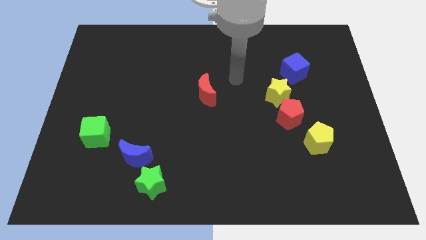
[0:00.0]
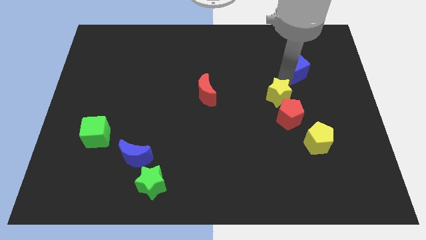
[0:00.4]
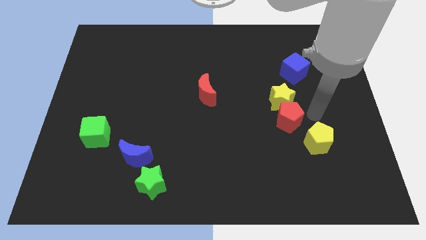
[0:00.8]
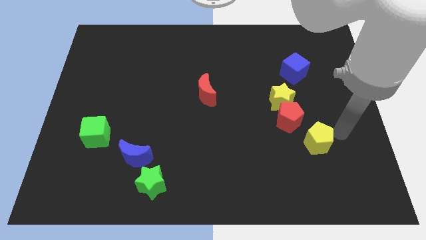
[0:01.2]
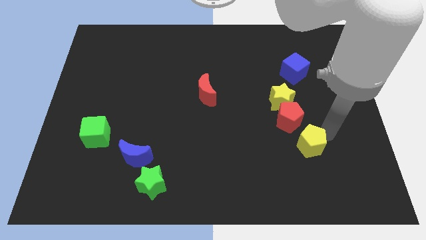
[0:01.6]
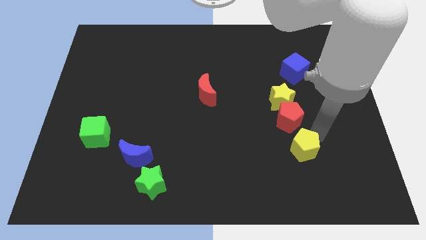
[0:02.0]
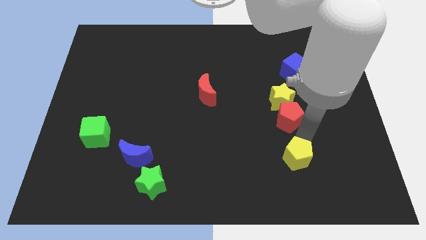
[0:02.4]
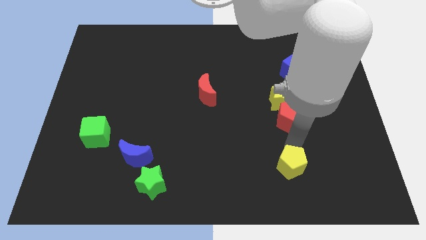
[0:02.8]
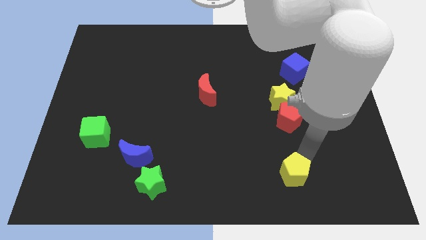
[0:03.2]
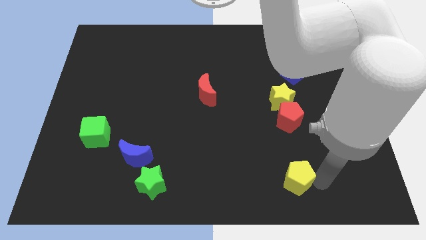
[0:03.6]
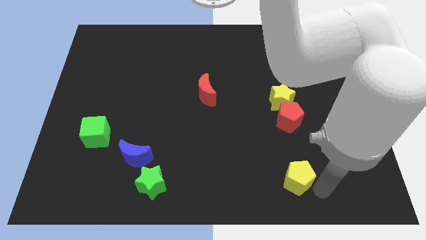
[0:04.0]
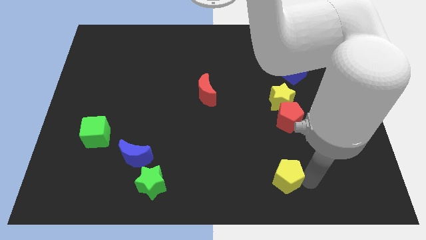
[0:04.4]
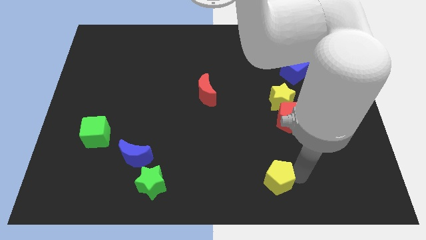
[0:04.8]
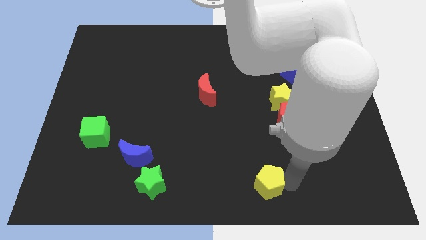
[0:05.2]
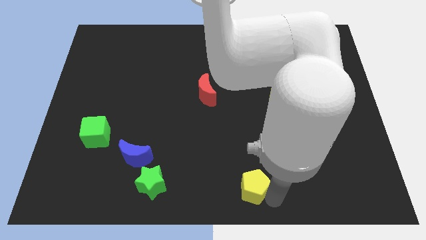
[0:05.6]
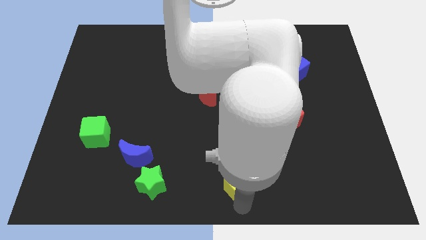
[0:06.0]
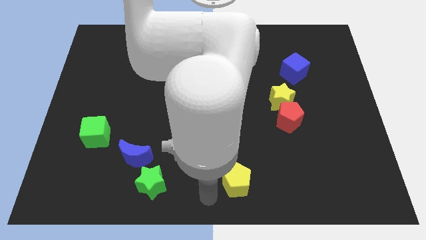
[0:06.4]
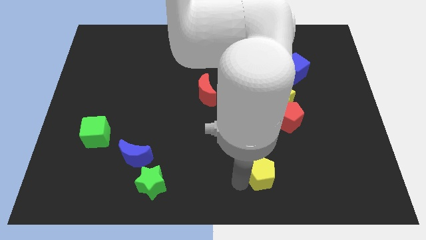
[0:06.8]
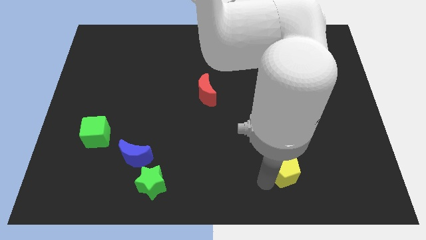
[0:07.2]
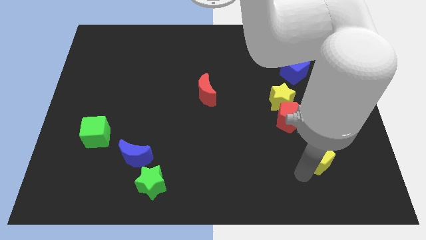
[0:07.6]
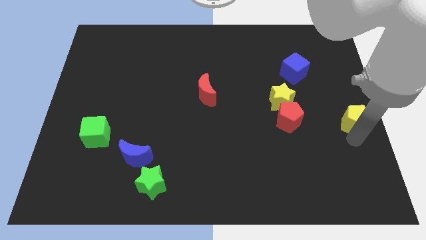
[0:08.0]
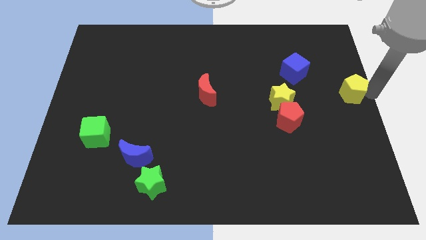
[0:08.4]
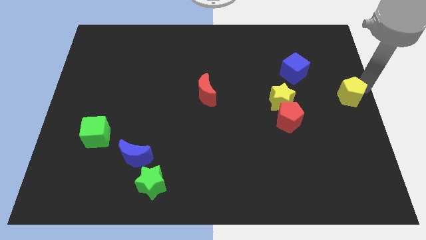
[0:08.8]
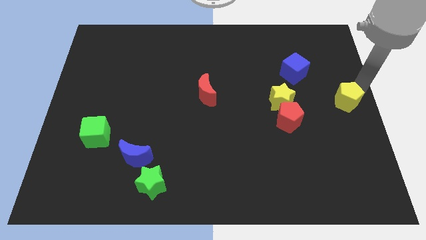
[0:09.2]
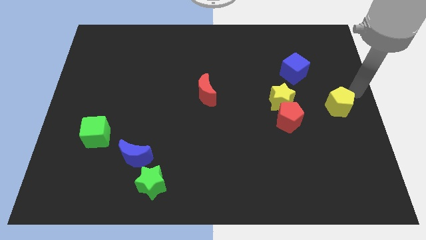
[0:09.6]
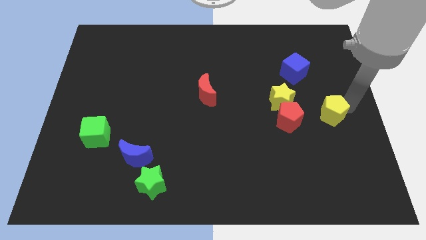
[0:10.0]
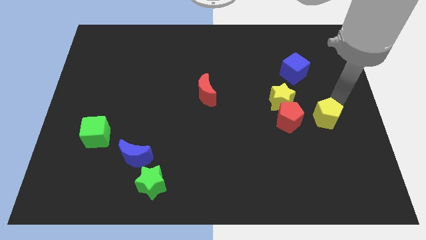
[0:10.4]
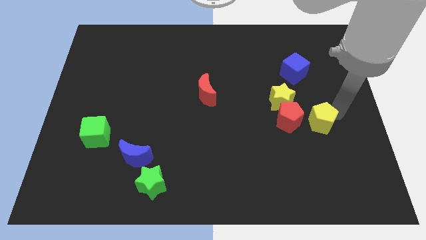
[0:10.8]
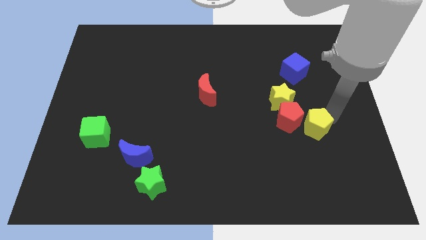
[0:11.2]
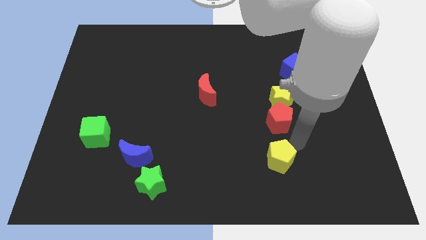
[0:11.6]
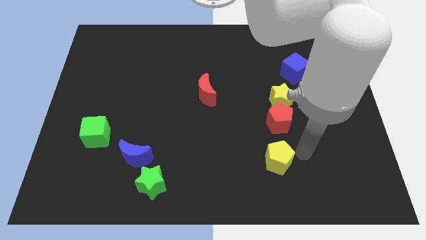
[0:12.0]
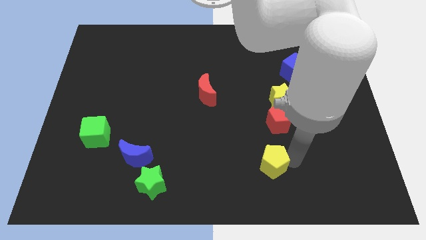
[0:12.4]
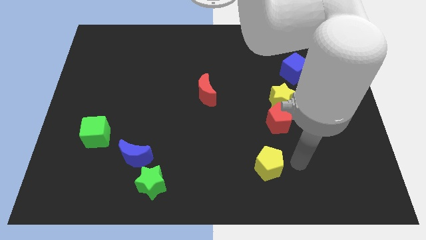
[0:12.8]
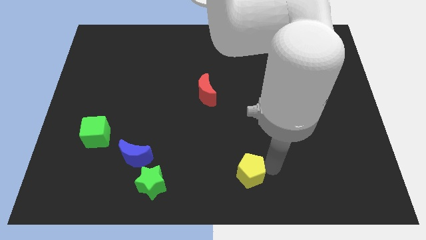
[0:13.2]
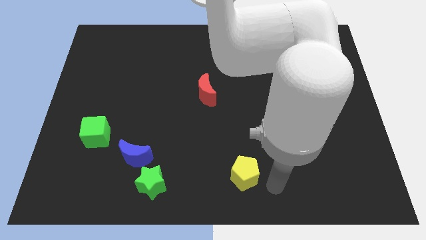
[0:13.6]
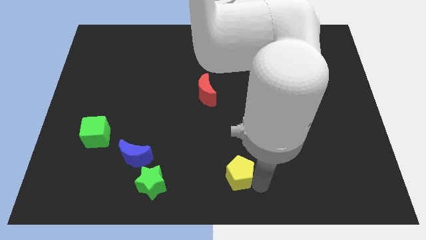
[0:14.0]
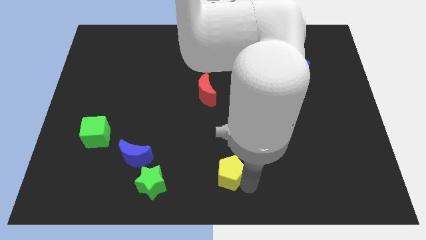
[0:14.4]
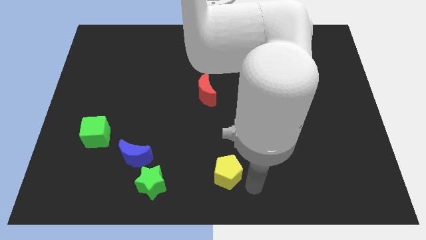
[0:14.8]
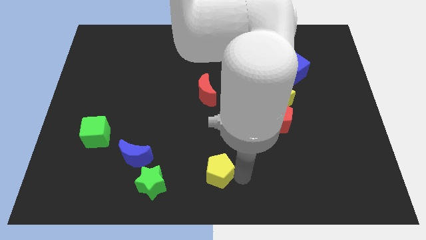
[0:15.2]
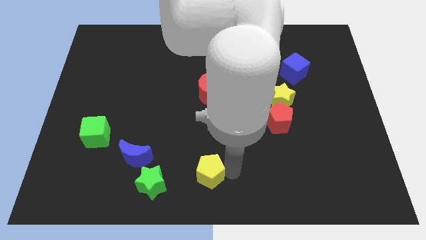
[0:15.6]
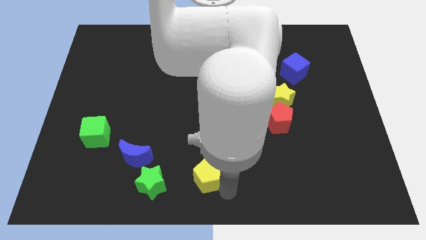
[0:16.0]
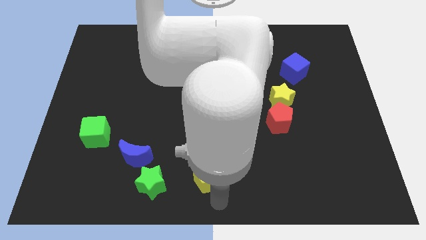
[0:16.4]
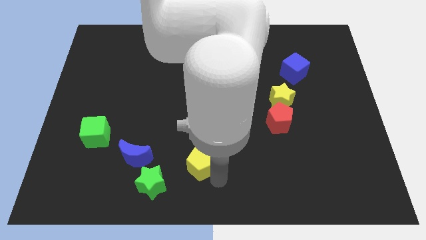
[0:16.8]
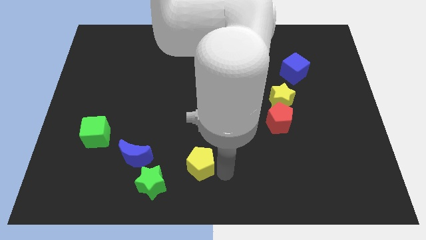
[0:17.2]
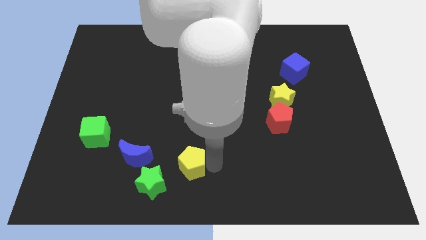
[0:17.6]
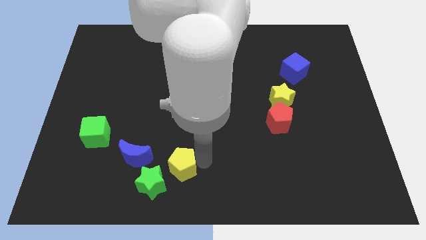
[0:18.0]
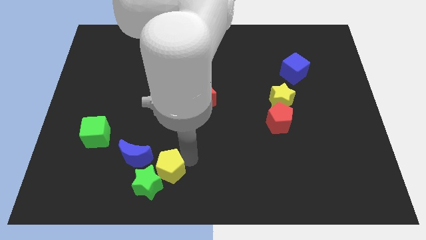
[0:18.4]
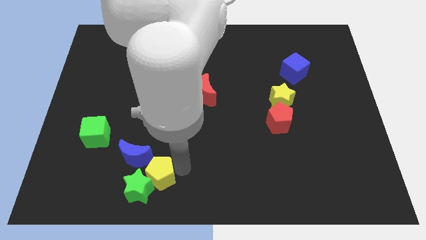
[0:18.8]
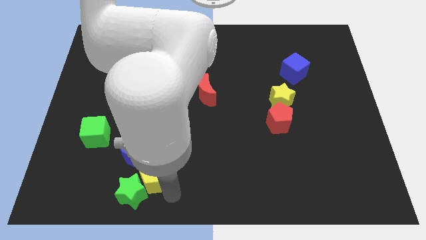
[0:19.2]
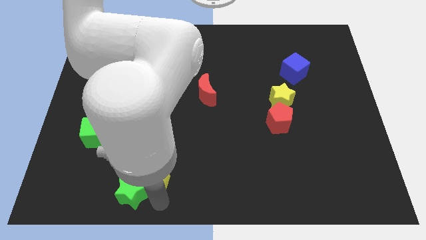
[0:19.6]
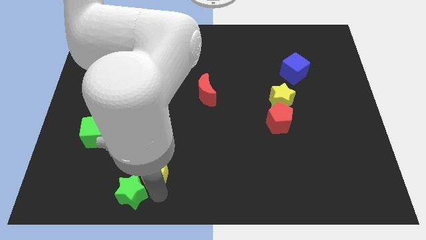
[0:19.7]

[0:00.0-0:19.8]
put the yellow pentagon next to the blue moon
